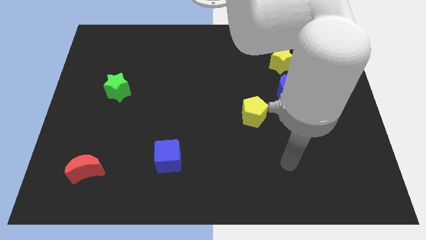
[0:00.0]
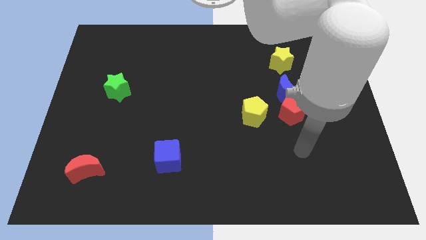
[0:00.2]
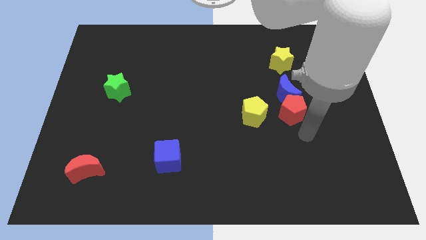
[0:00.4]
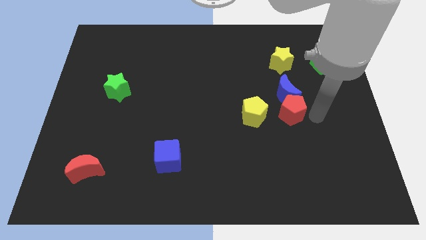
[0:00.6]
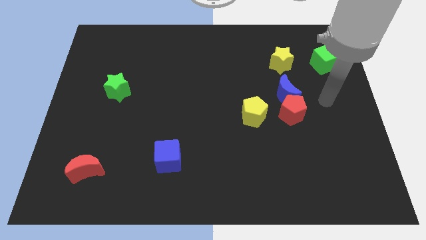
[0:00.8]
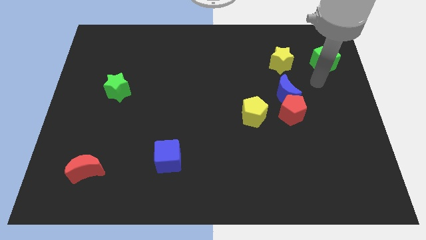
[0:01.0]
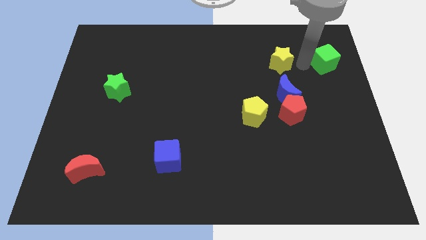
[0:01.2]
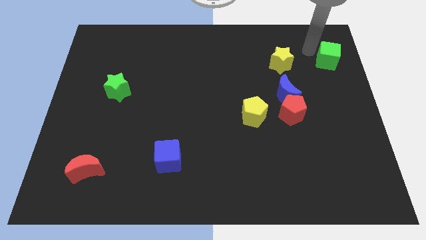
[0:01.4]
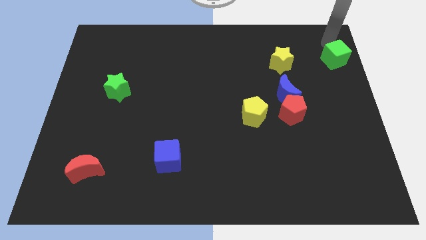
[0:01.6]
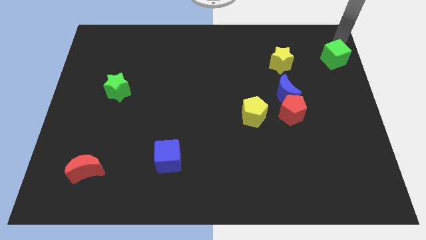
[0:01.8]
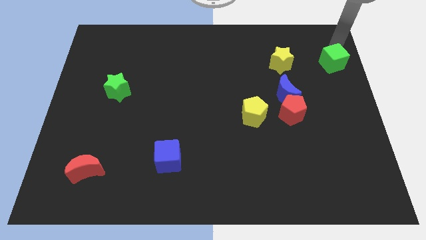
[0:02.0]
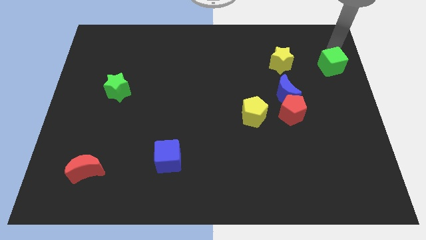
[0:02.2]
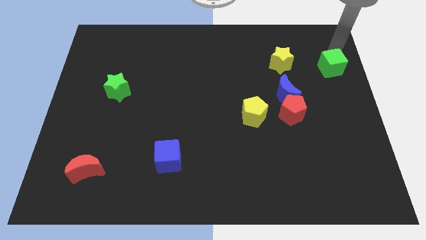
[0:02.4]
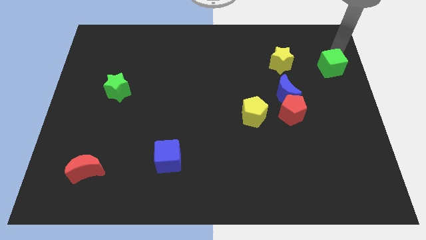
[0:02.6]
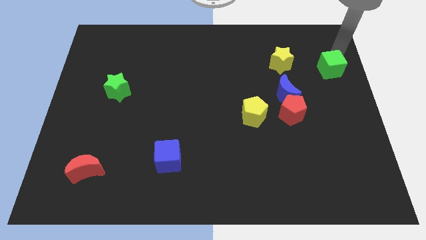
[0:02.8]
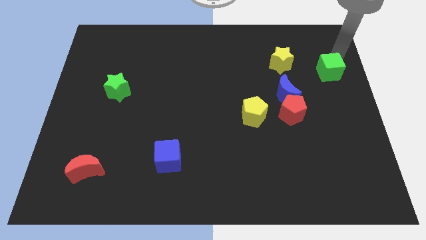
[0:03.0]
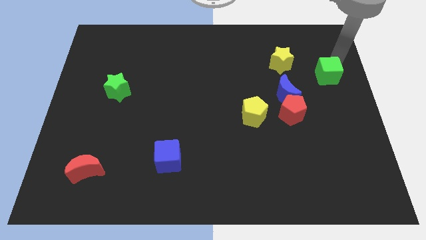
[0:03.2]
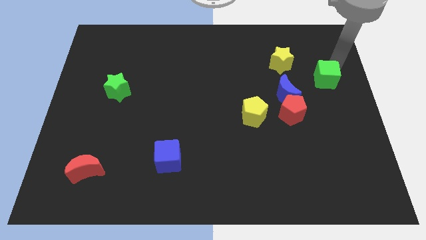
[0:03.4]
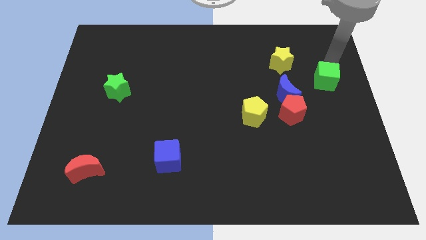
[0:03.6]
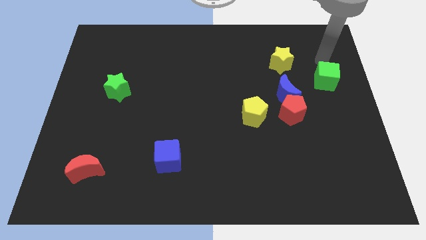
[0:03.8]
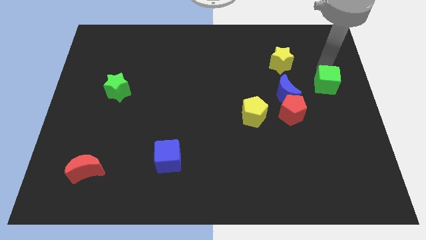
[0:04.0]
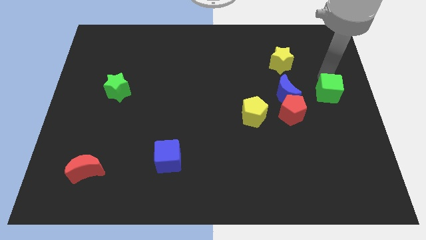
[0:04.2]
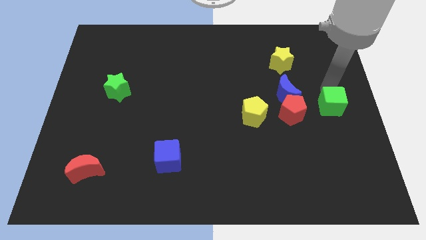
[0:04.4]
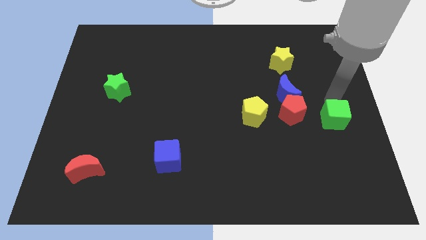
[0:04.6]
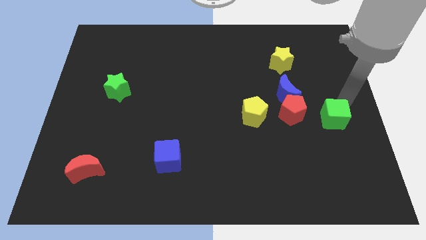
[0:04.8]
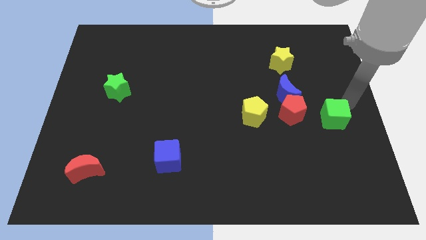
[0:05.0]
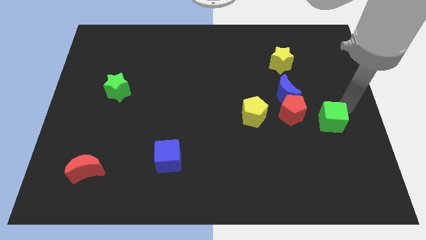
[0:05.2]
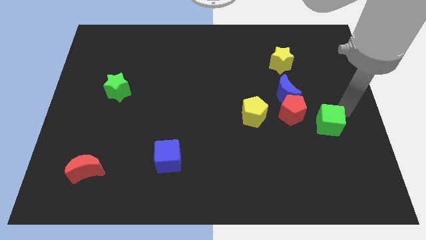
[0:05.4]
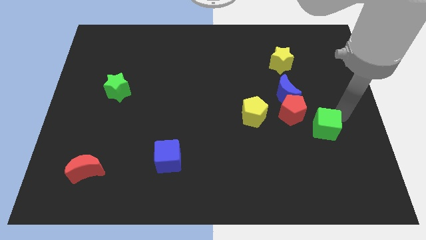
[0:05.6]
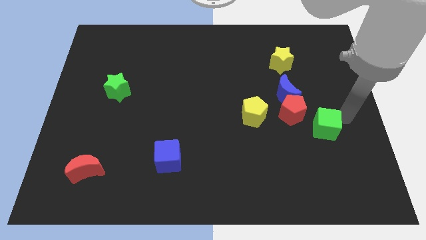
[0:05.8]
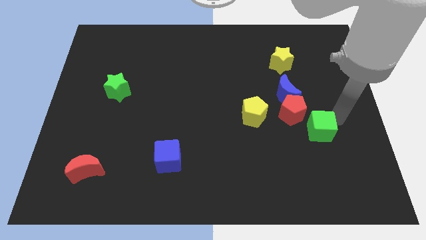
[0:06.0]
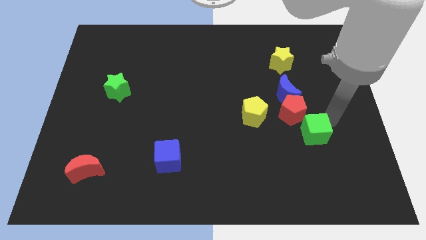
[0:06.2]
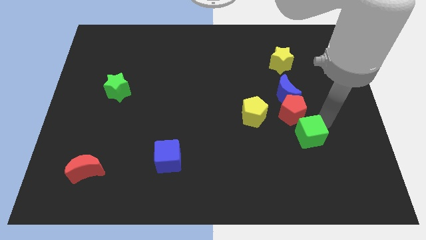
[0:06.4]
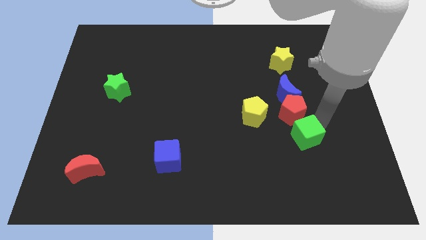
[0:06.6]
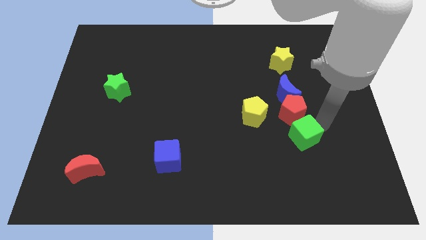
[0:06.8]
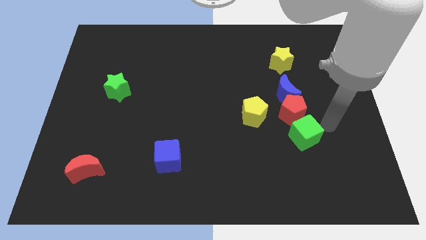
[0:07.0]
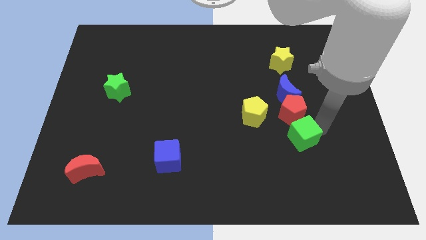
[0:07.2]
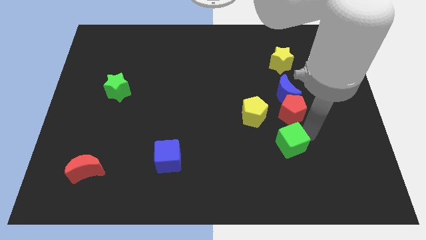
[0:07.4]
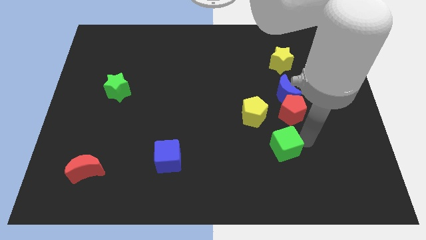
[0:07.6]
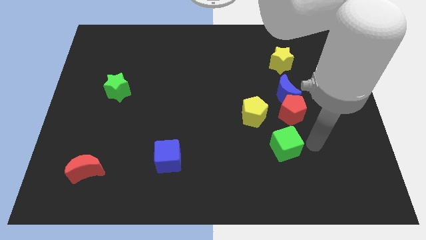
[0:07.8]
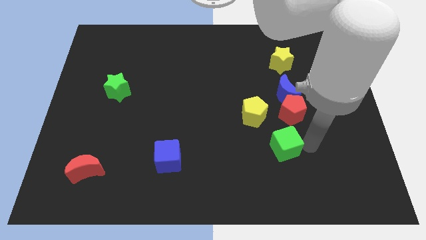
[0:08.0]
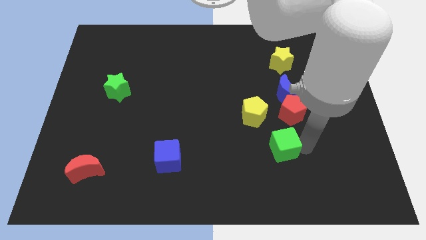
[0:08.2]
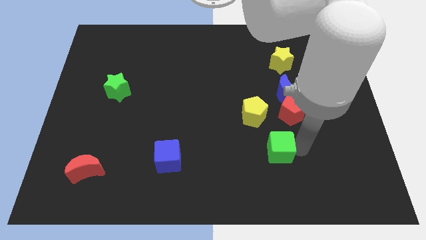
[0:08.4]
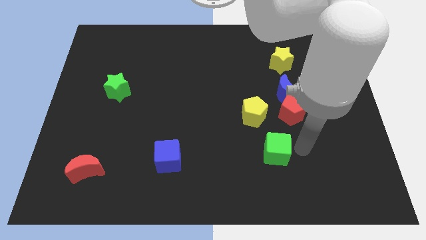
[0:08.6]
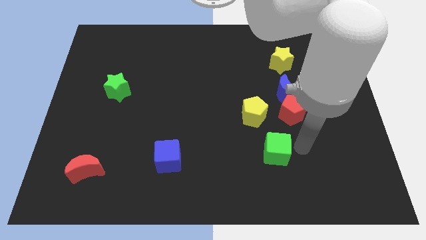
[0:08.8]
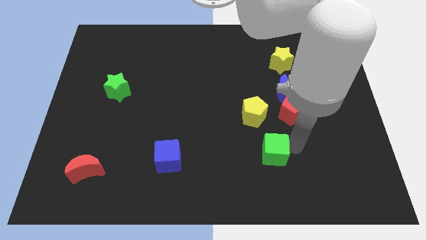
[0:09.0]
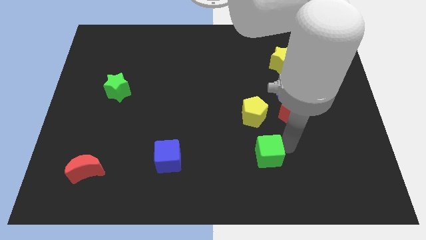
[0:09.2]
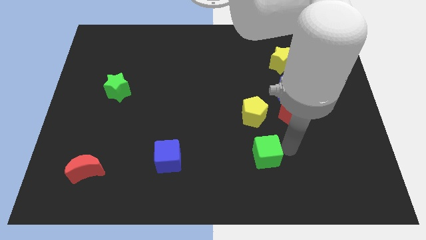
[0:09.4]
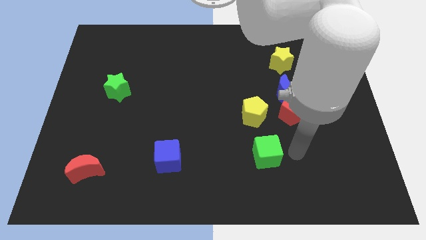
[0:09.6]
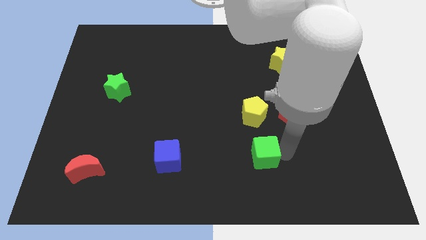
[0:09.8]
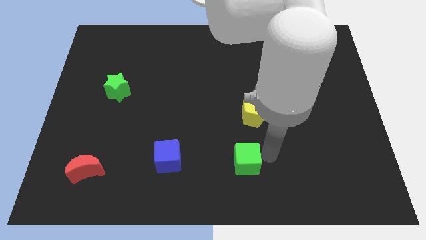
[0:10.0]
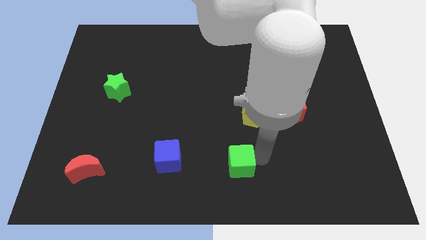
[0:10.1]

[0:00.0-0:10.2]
push the green cube to the right of the blue cube

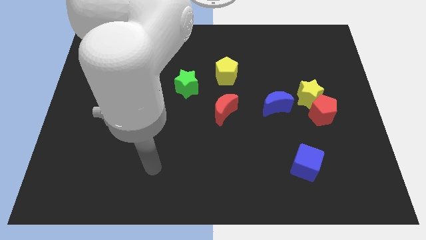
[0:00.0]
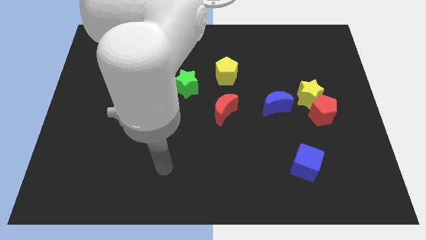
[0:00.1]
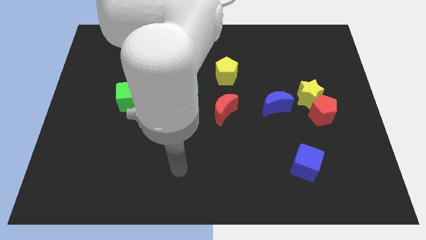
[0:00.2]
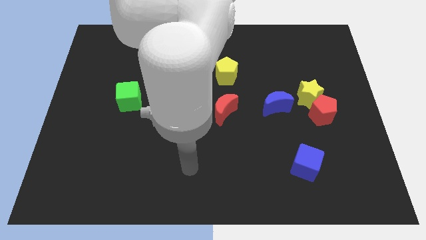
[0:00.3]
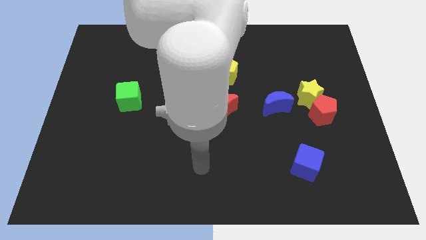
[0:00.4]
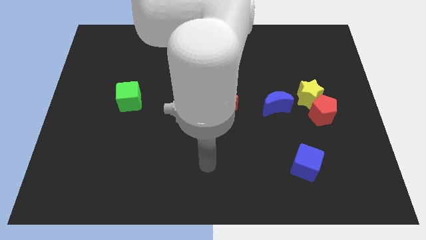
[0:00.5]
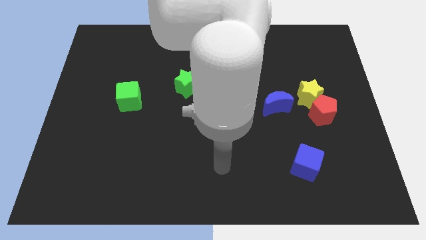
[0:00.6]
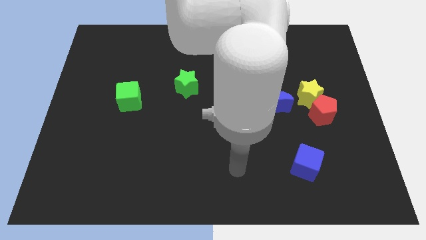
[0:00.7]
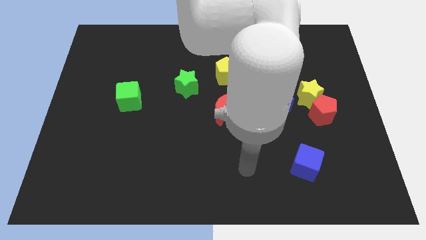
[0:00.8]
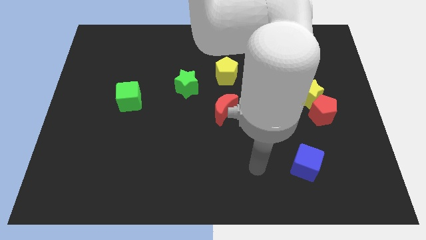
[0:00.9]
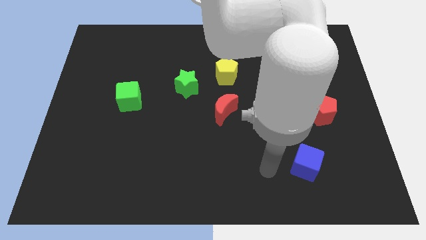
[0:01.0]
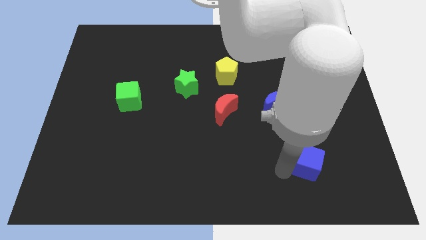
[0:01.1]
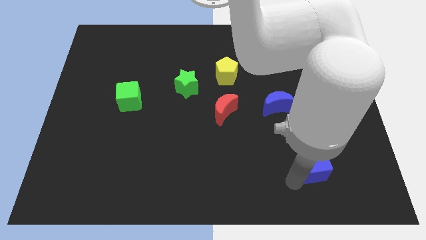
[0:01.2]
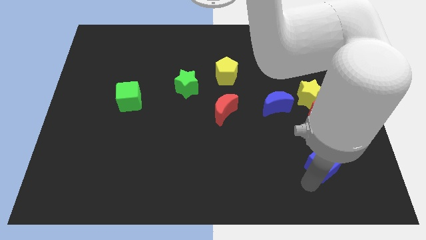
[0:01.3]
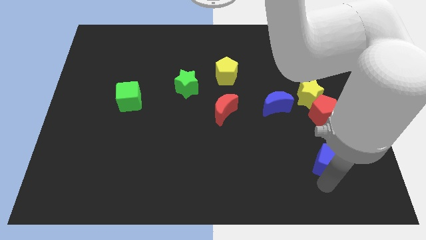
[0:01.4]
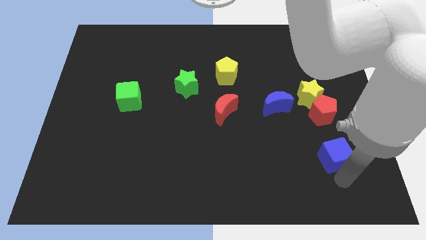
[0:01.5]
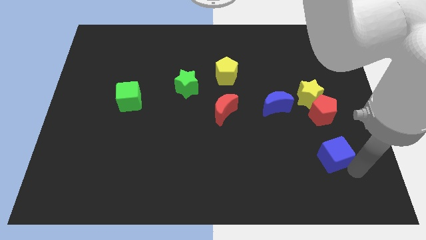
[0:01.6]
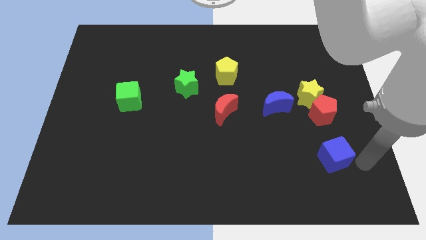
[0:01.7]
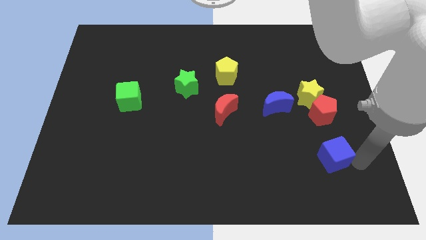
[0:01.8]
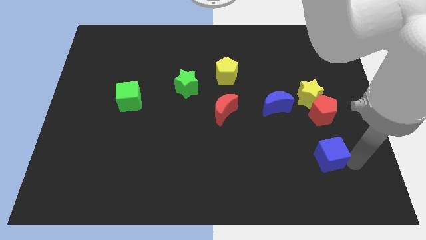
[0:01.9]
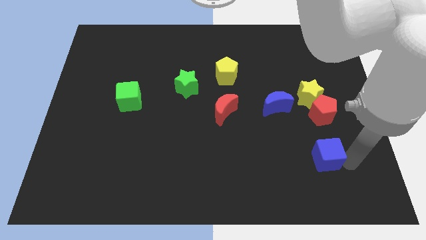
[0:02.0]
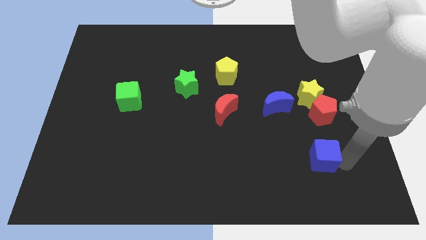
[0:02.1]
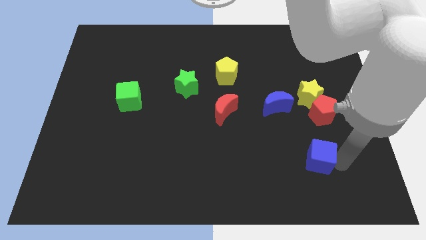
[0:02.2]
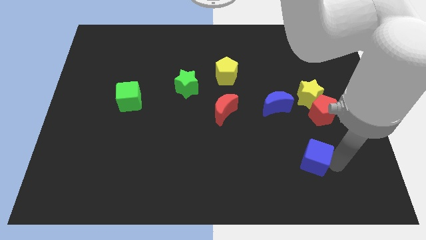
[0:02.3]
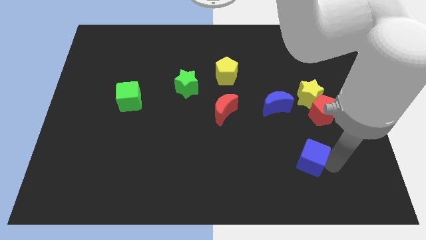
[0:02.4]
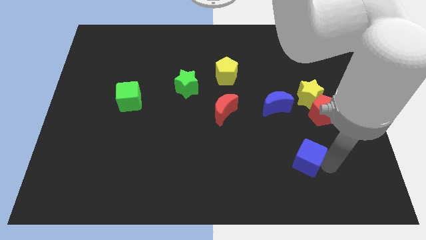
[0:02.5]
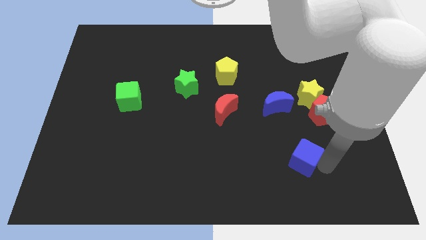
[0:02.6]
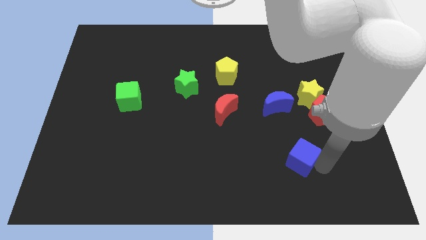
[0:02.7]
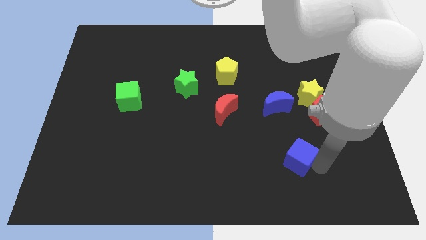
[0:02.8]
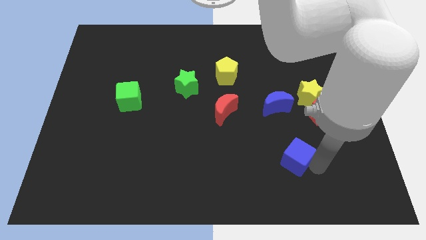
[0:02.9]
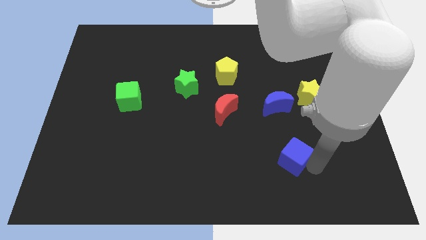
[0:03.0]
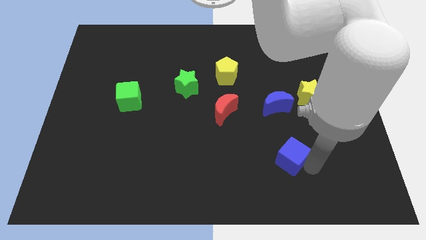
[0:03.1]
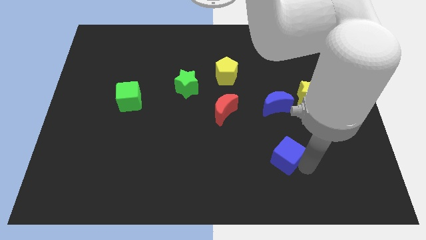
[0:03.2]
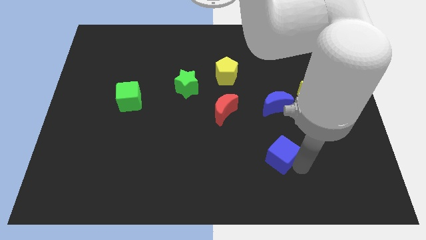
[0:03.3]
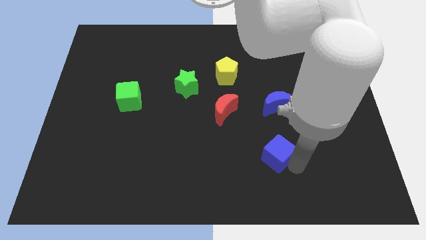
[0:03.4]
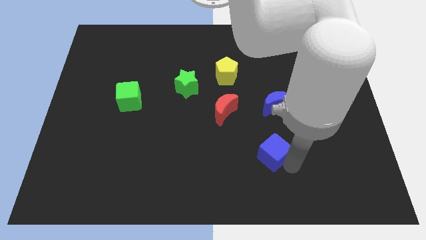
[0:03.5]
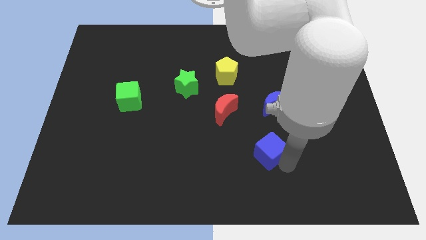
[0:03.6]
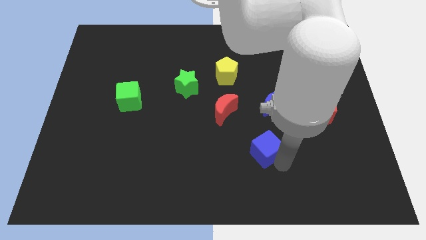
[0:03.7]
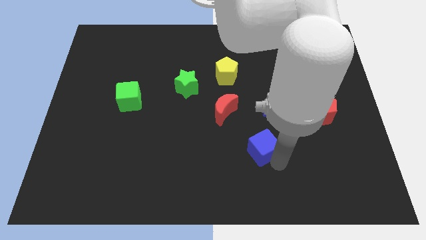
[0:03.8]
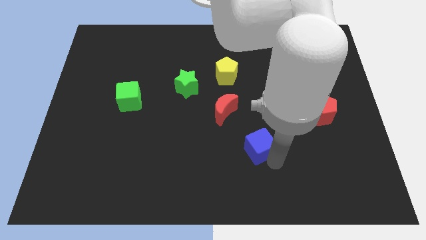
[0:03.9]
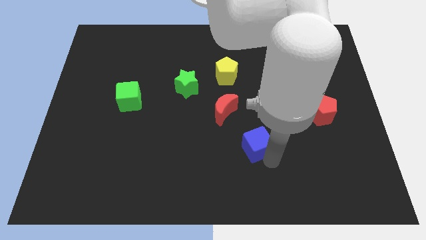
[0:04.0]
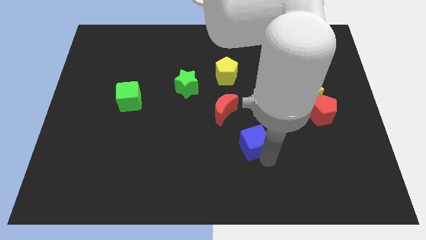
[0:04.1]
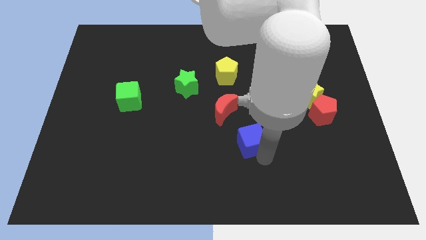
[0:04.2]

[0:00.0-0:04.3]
slide the blue cube diagonally down and to the left of the blue moon
